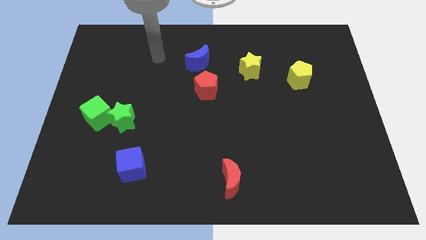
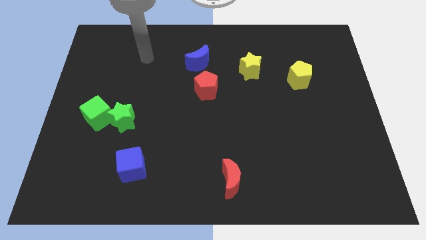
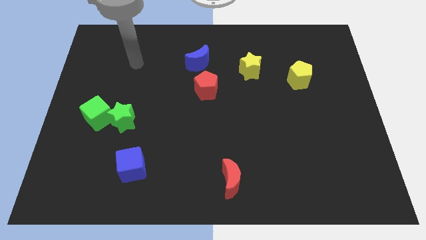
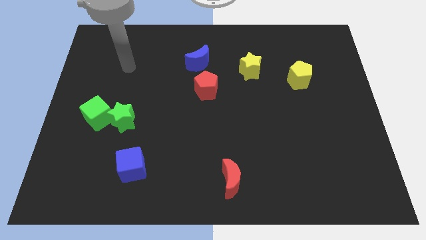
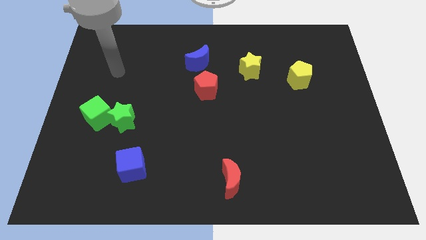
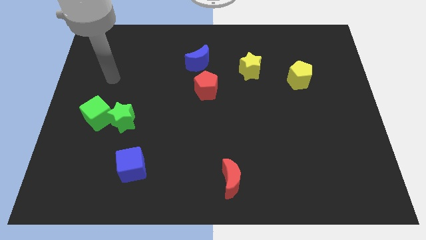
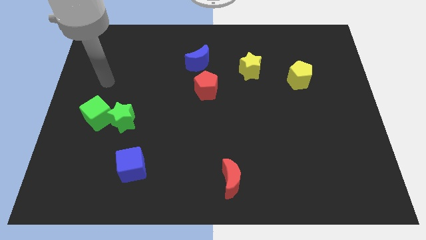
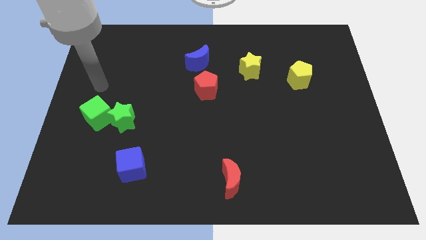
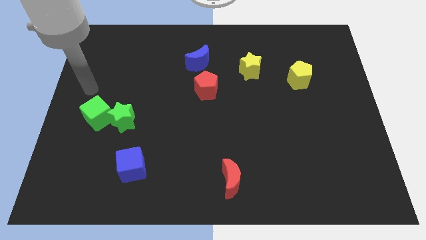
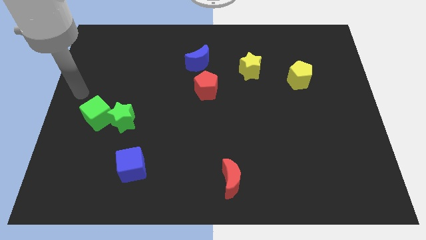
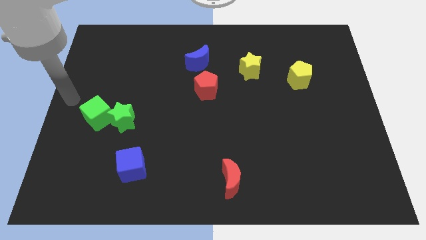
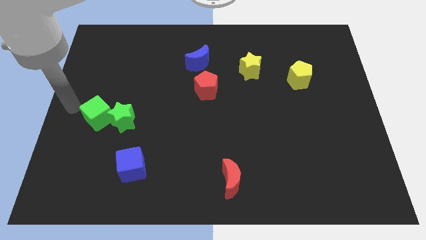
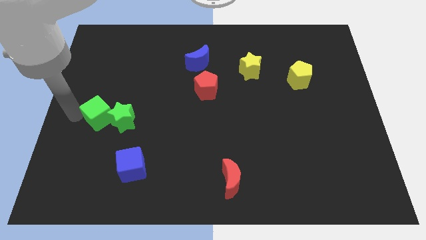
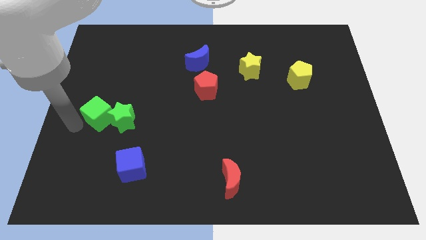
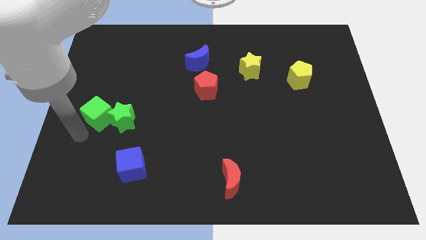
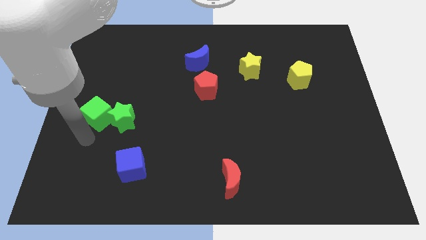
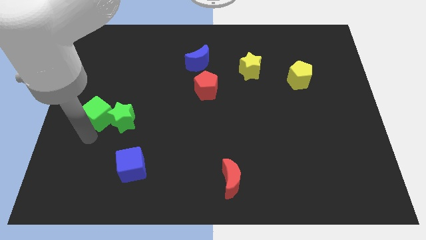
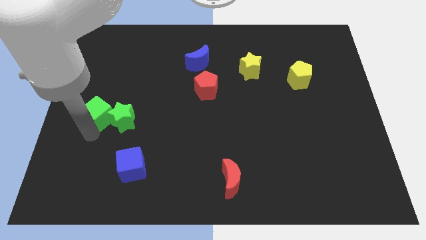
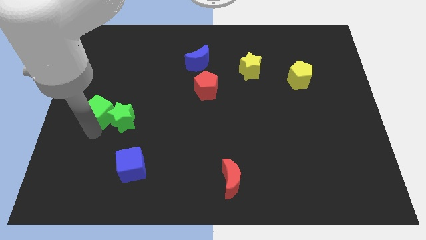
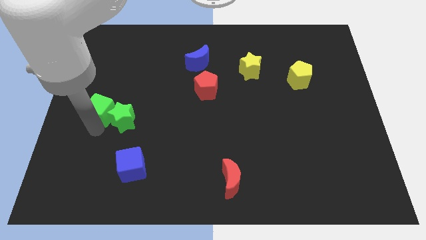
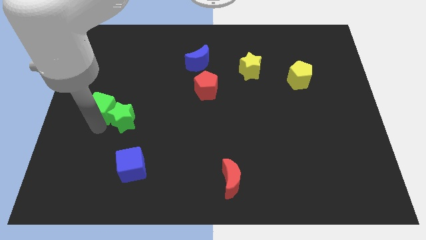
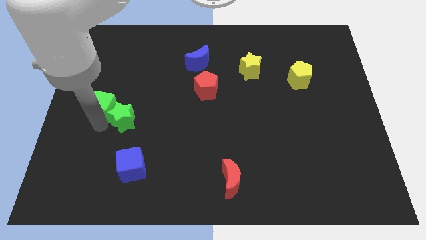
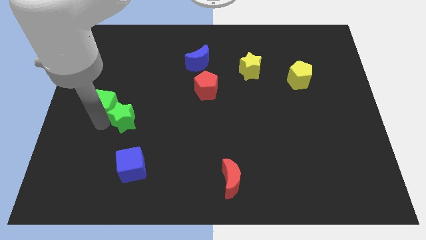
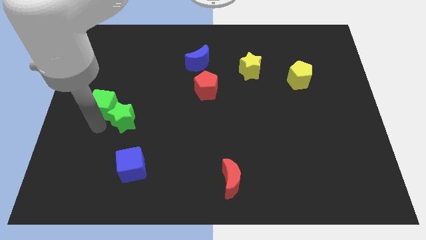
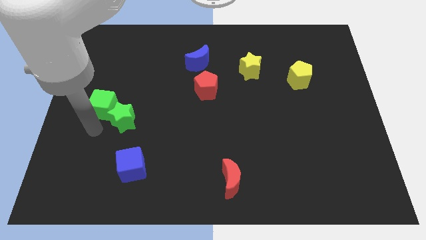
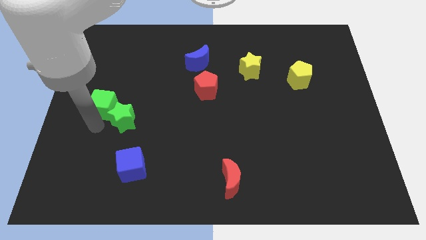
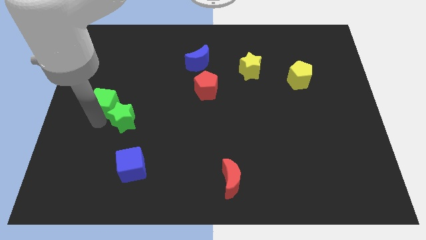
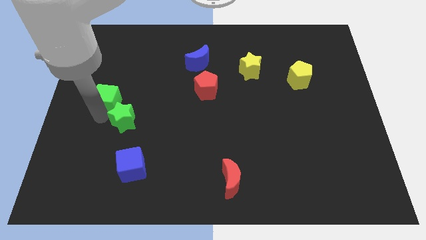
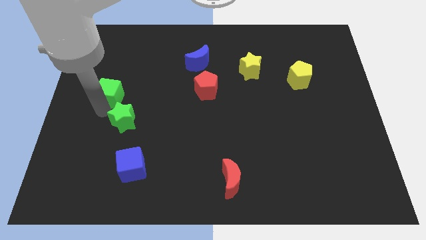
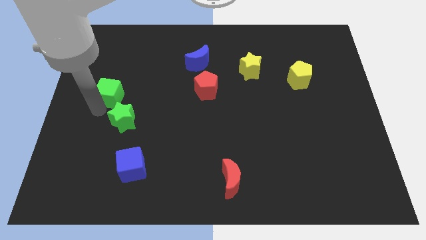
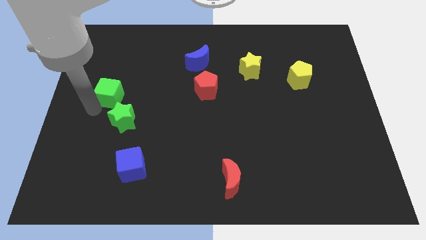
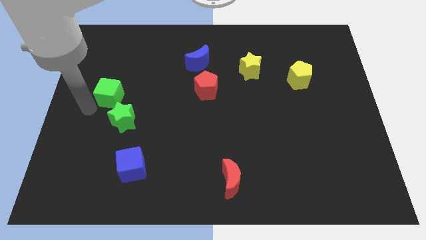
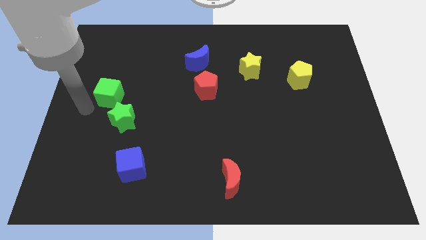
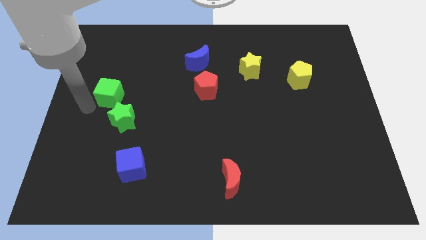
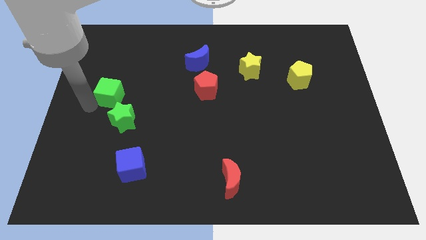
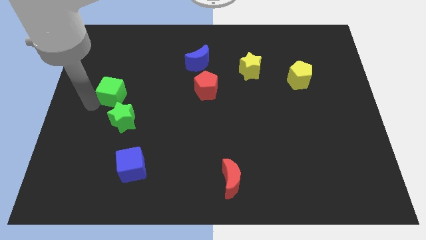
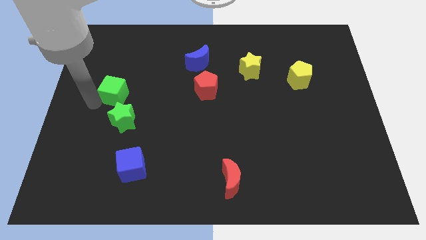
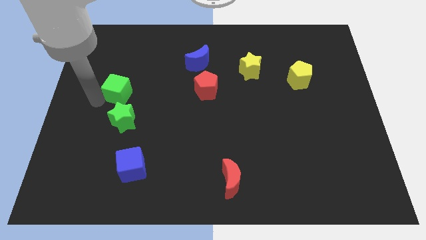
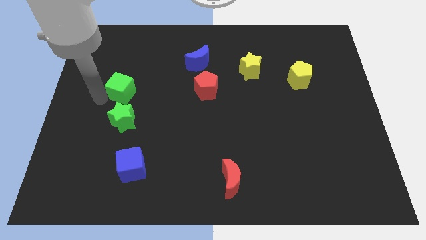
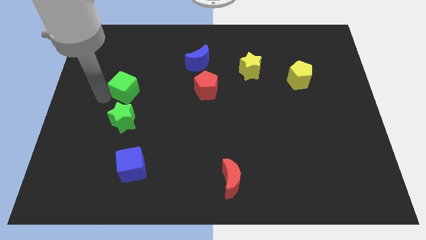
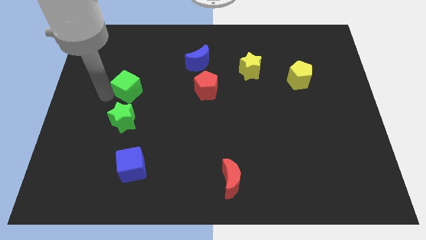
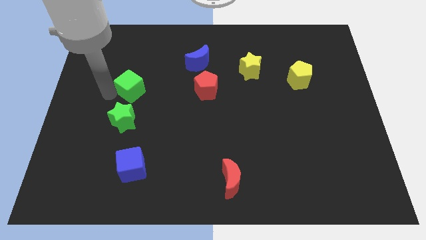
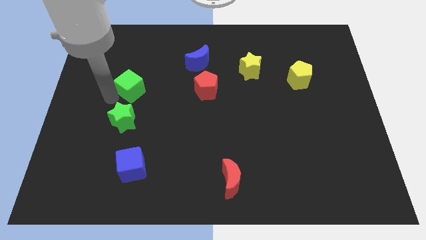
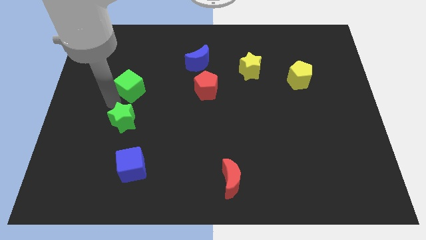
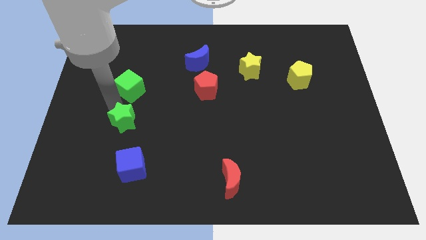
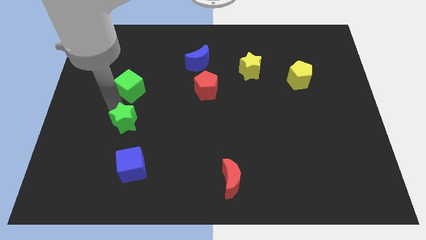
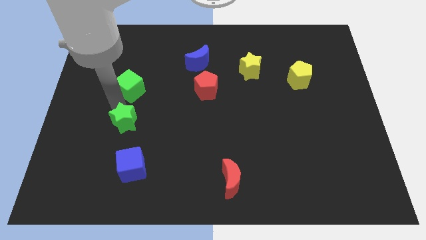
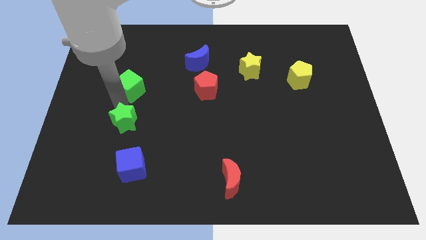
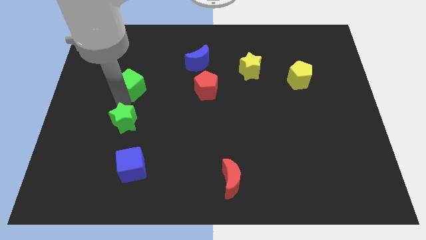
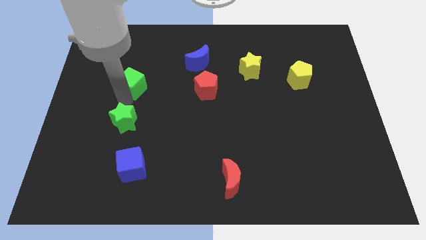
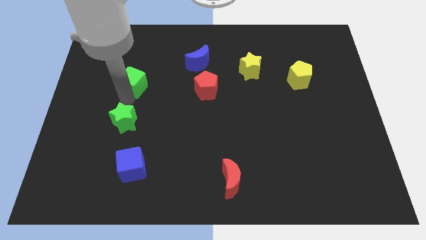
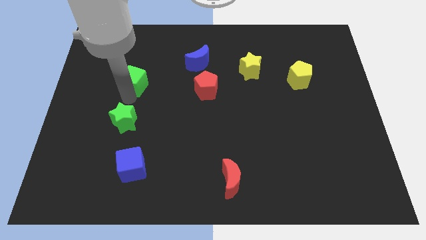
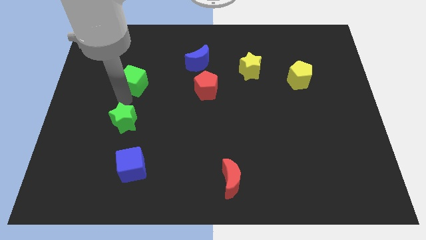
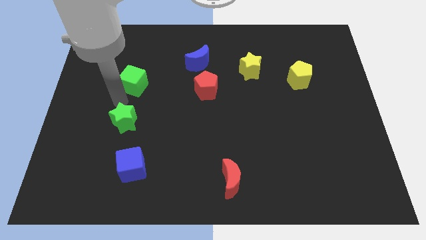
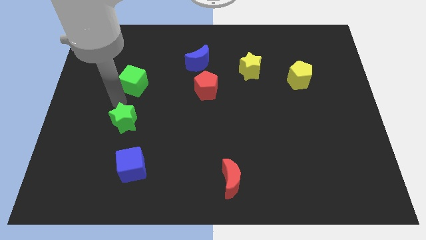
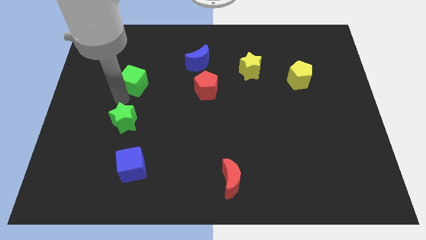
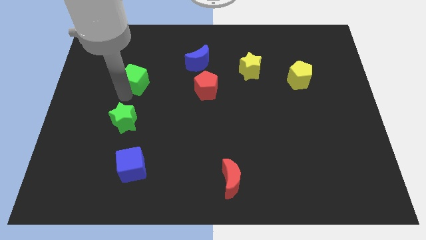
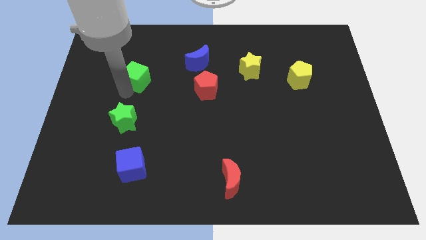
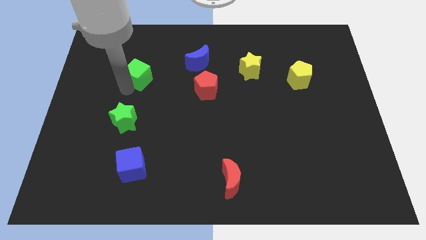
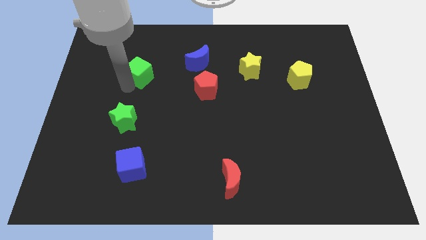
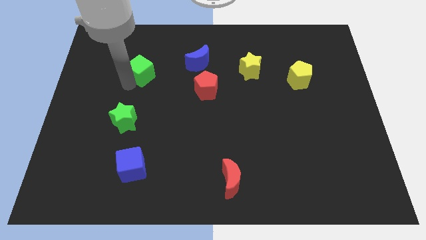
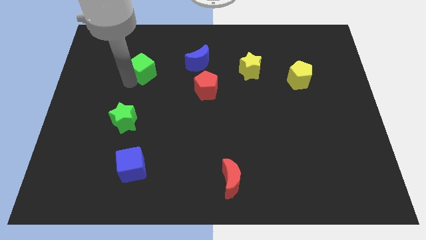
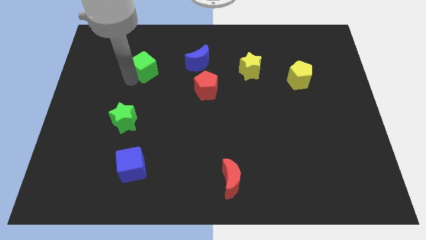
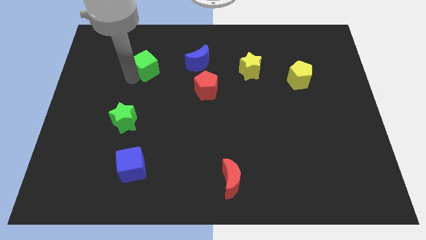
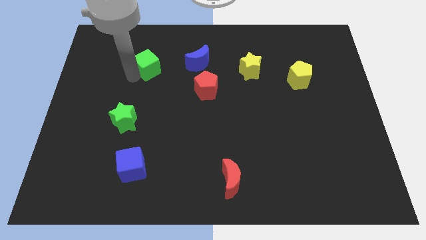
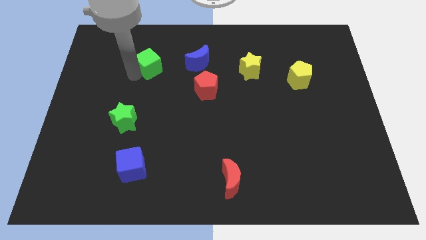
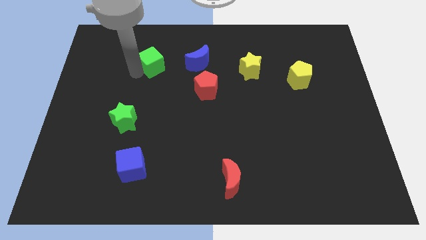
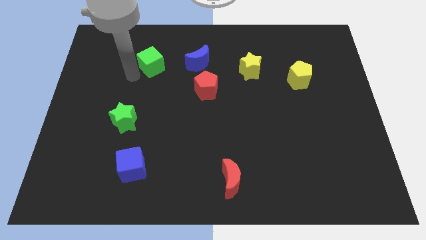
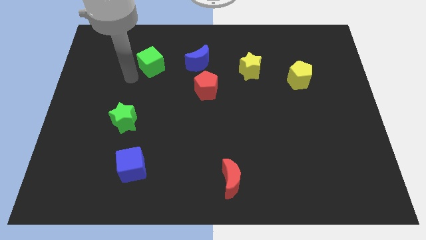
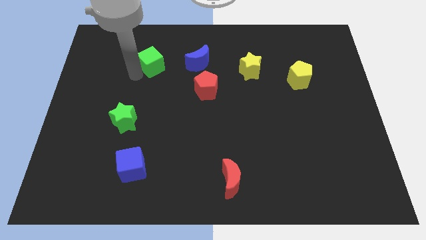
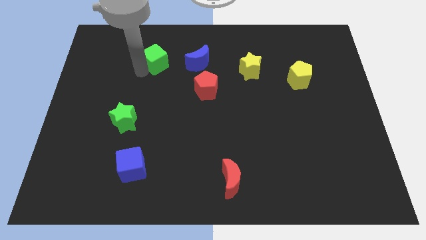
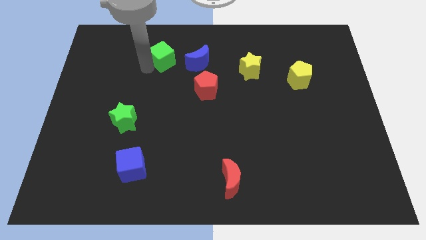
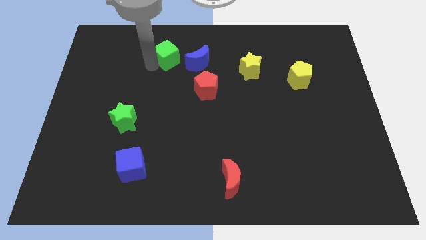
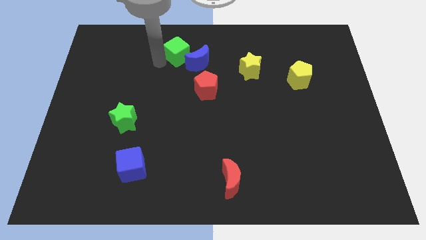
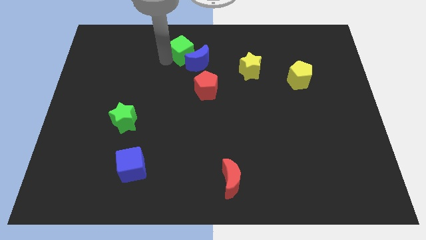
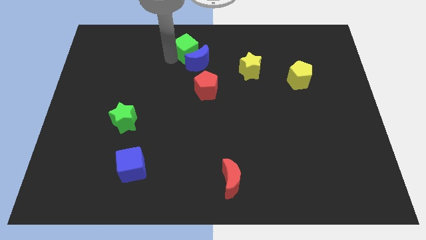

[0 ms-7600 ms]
move the green cube to the top
